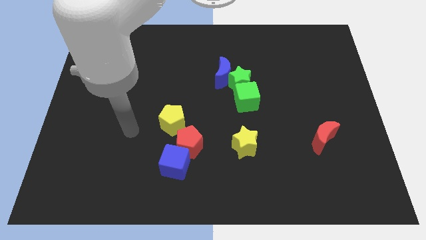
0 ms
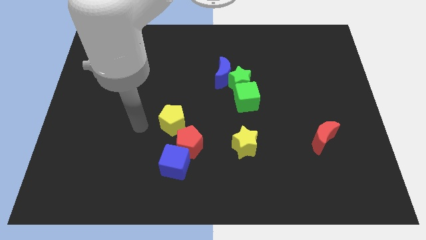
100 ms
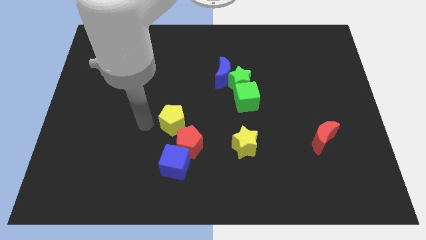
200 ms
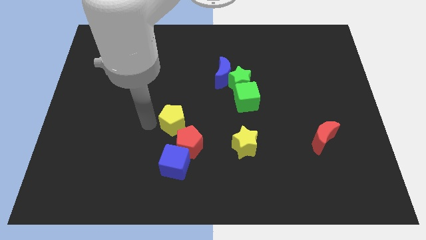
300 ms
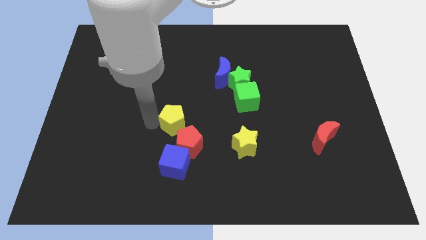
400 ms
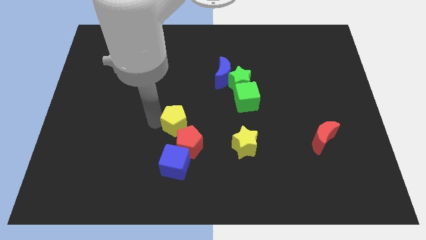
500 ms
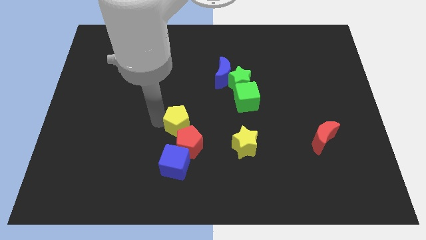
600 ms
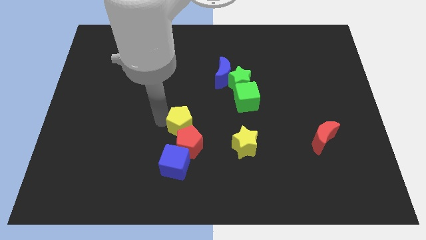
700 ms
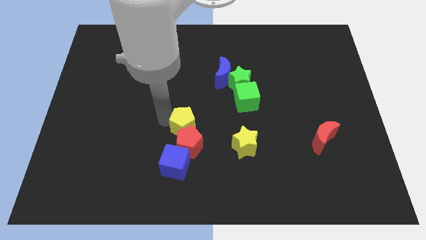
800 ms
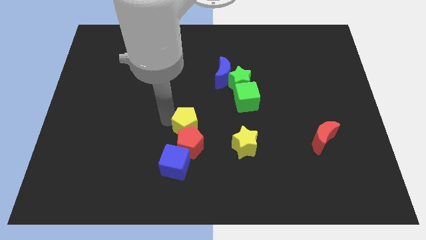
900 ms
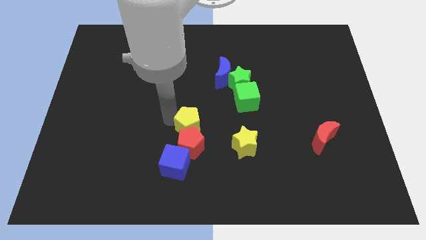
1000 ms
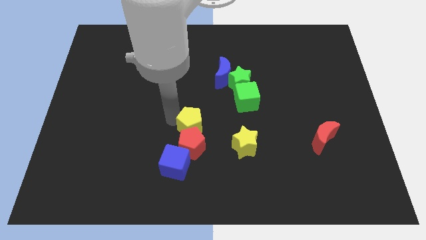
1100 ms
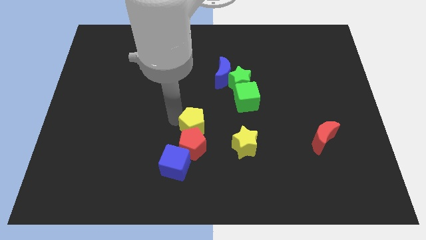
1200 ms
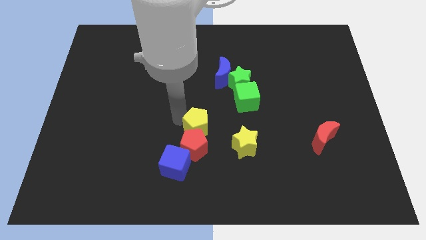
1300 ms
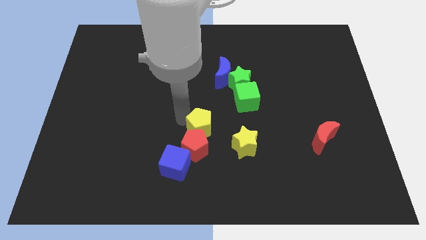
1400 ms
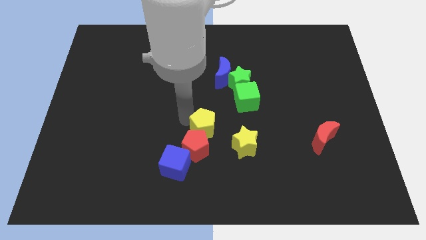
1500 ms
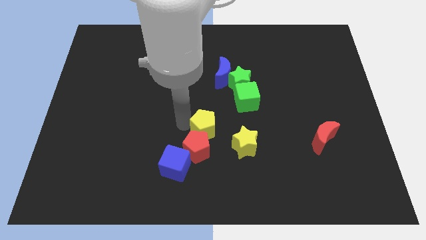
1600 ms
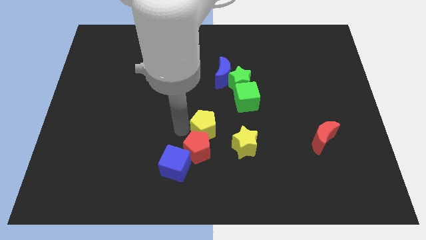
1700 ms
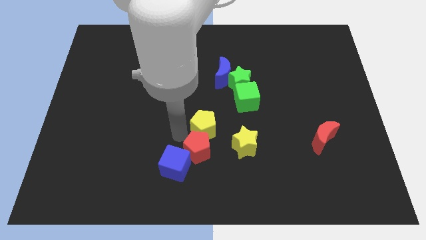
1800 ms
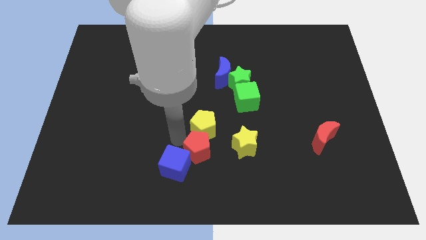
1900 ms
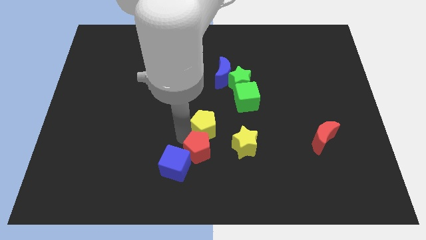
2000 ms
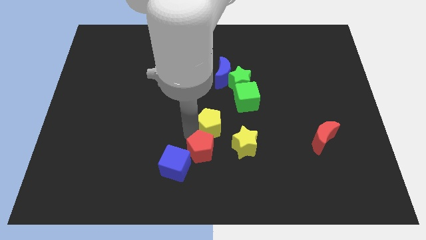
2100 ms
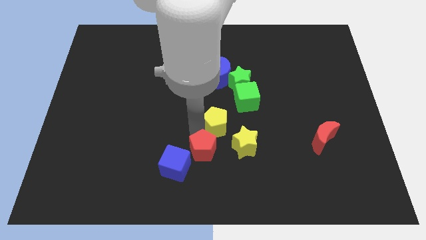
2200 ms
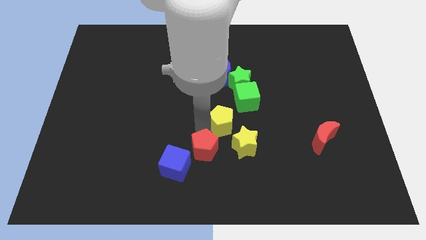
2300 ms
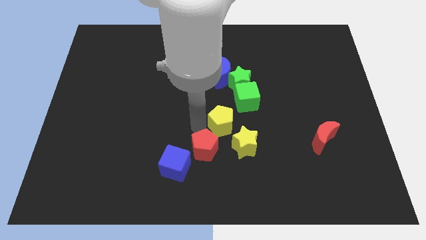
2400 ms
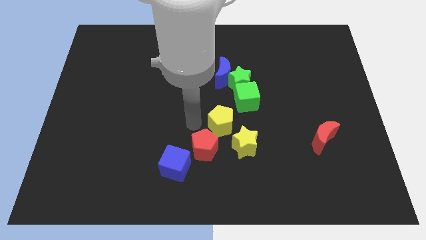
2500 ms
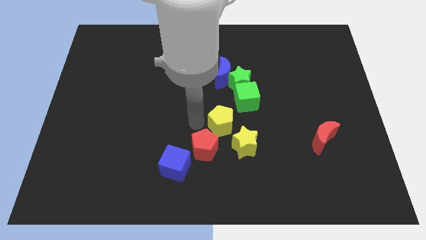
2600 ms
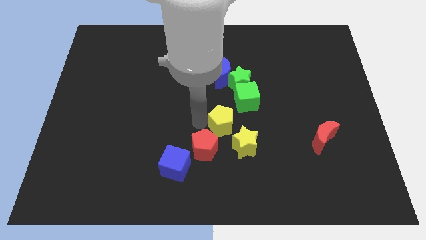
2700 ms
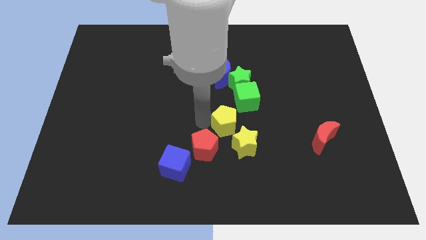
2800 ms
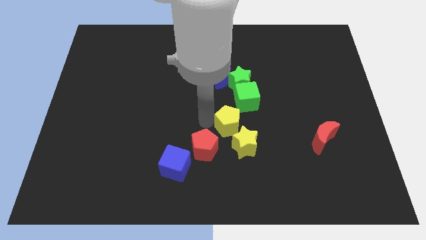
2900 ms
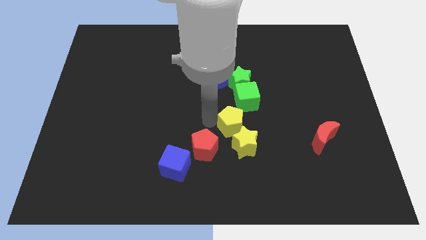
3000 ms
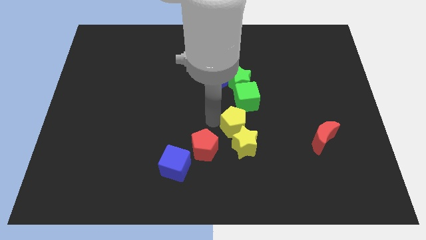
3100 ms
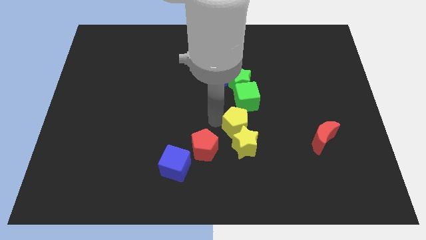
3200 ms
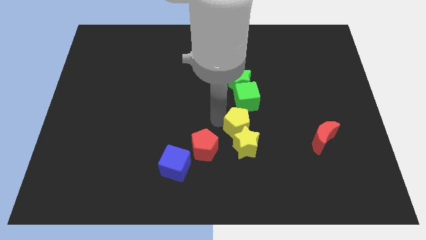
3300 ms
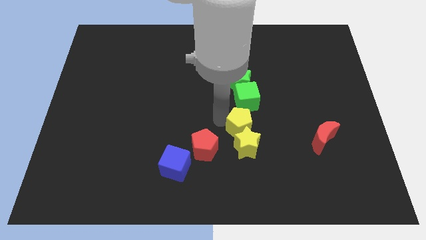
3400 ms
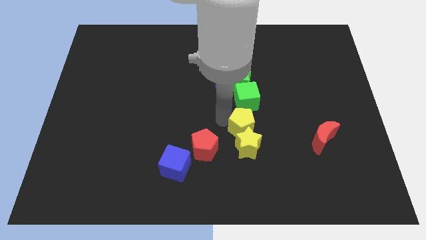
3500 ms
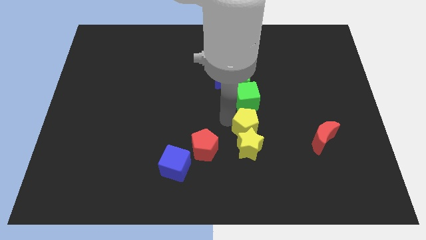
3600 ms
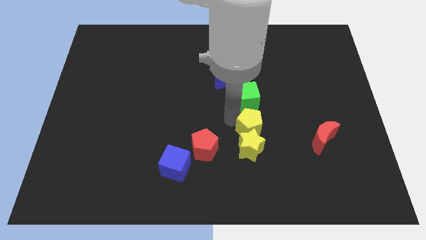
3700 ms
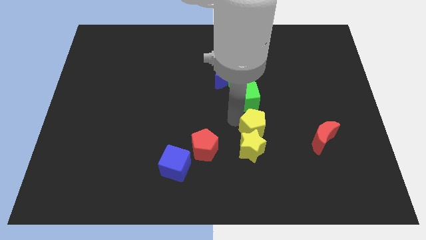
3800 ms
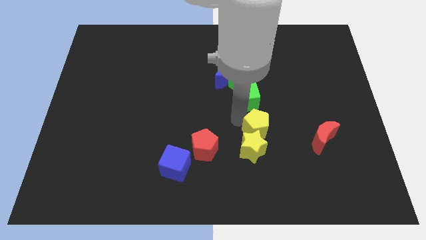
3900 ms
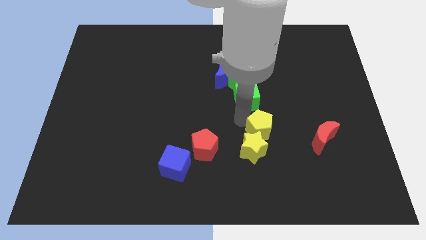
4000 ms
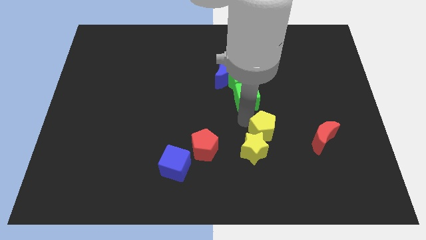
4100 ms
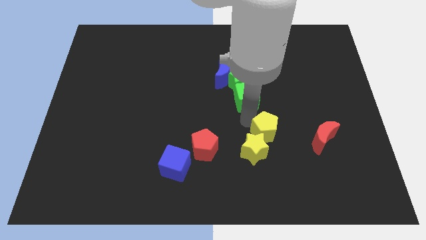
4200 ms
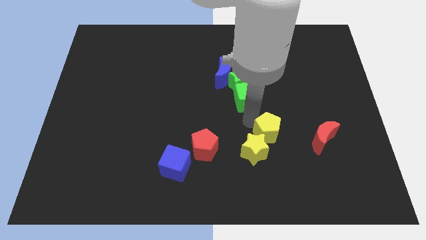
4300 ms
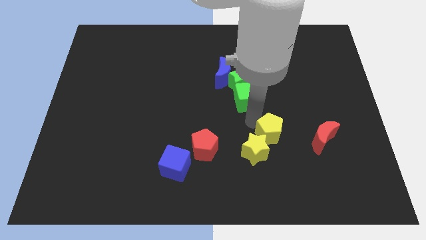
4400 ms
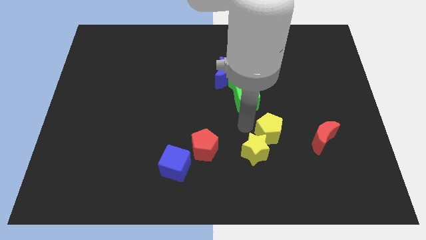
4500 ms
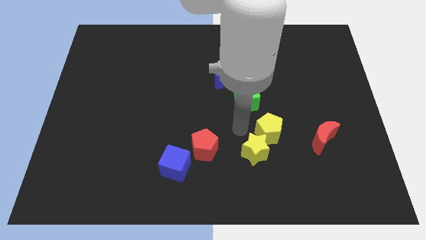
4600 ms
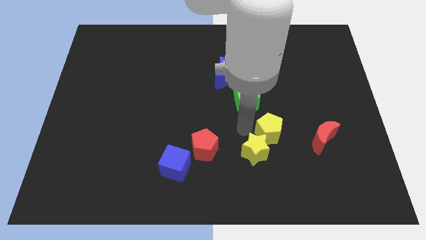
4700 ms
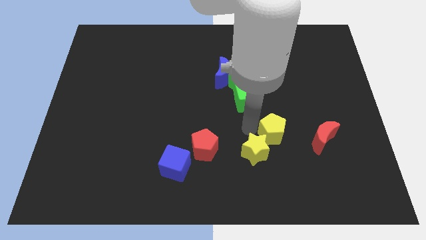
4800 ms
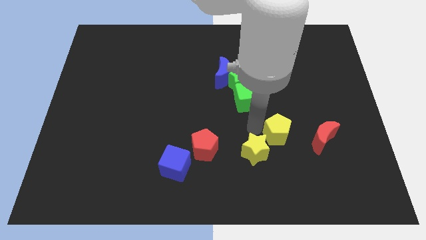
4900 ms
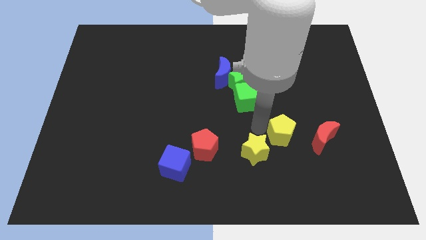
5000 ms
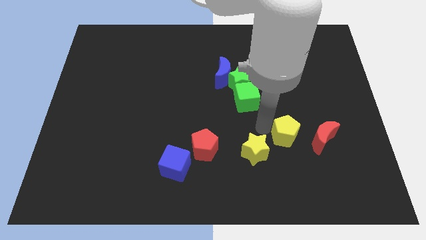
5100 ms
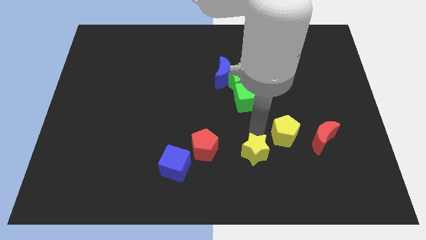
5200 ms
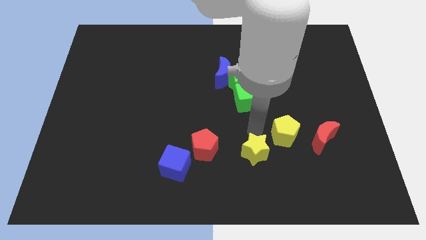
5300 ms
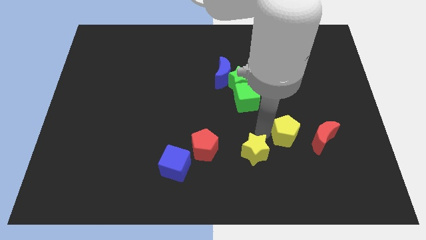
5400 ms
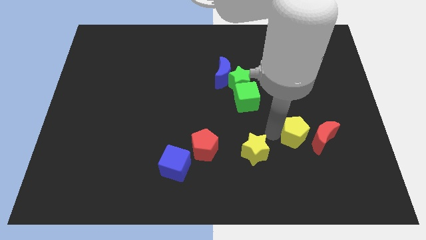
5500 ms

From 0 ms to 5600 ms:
put the yellow pentagon towards the red moon
